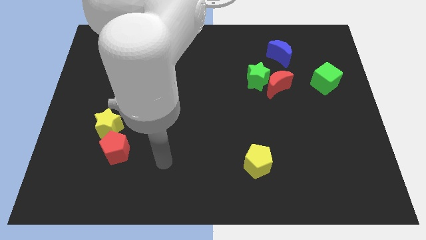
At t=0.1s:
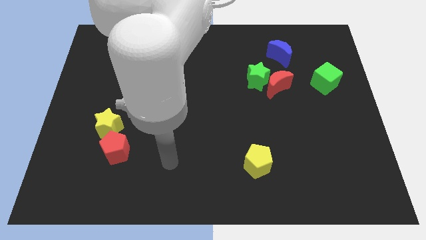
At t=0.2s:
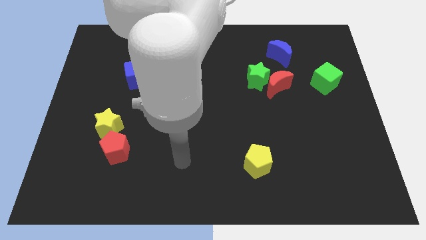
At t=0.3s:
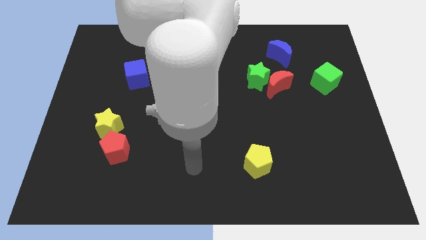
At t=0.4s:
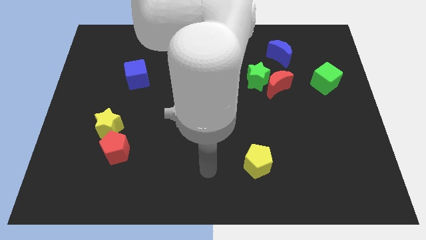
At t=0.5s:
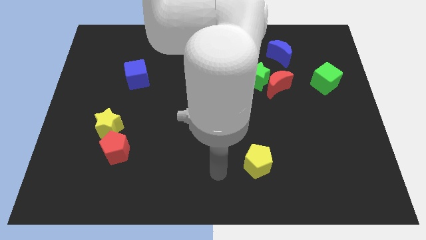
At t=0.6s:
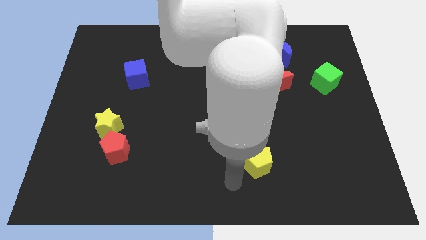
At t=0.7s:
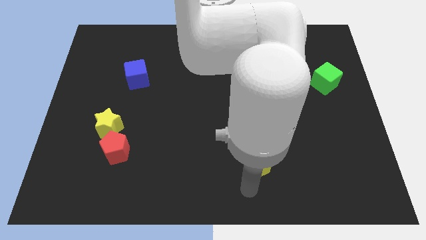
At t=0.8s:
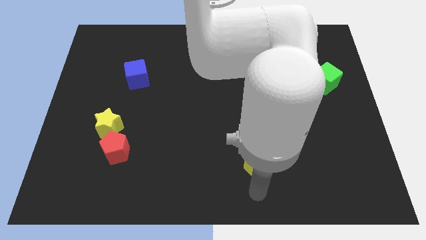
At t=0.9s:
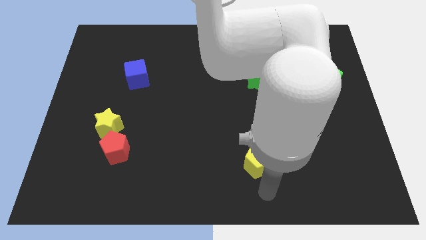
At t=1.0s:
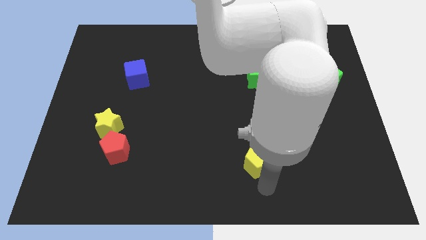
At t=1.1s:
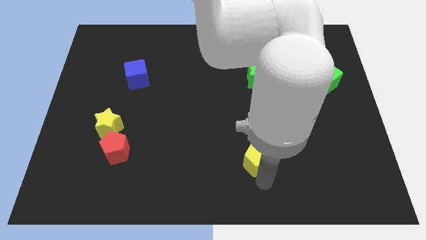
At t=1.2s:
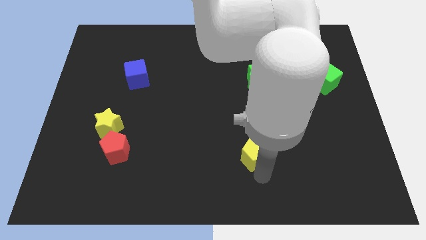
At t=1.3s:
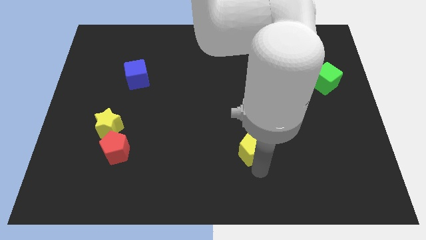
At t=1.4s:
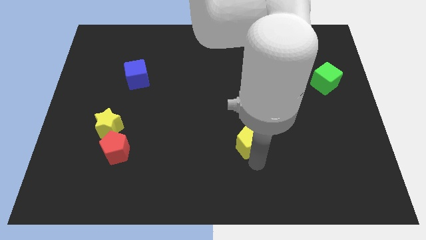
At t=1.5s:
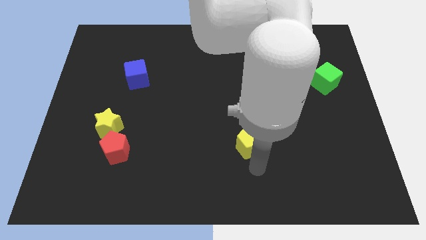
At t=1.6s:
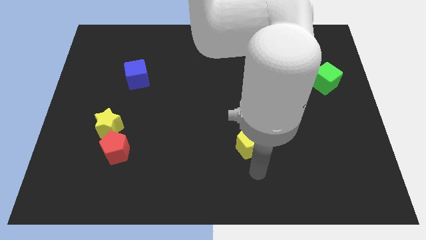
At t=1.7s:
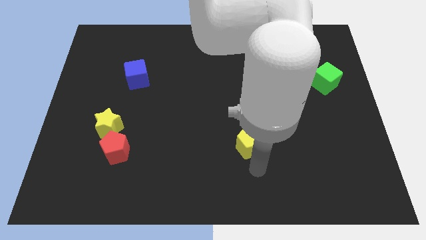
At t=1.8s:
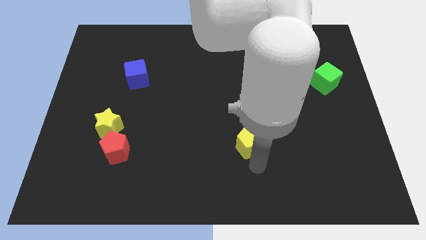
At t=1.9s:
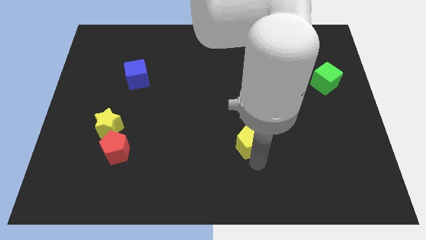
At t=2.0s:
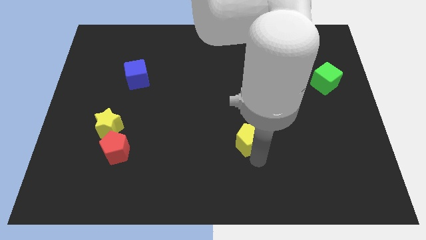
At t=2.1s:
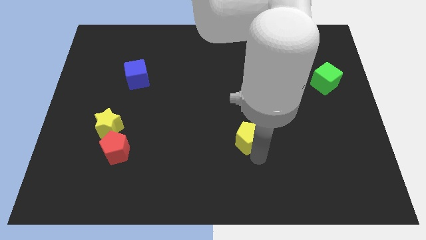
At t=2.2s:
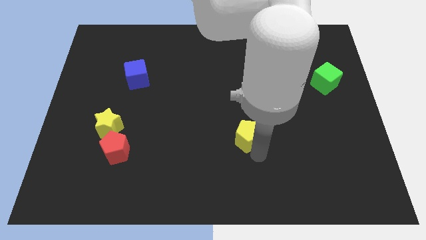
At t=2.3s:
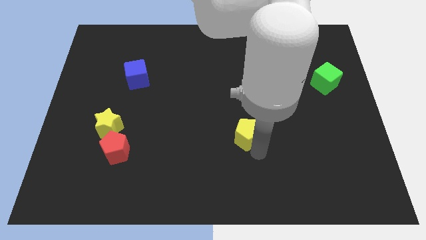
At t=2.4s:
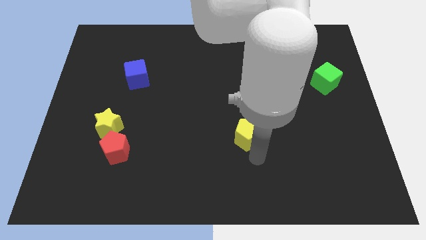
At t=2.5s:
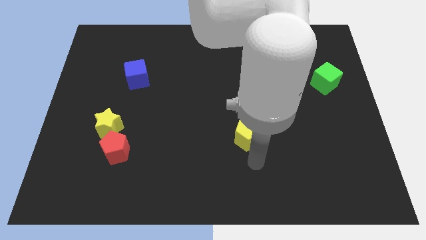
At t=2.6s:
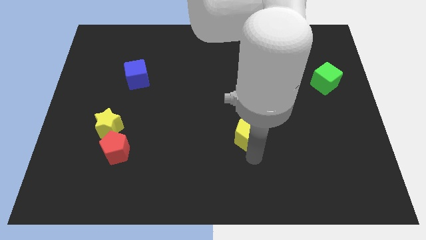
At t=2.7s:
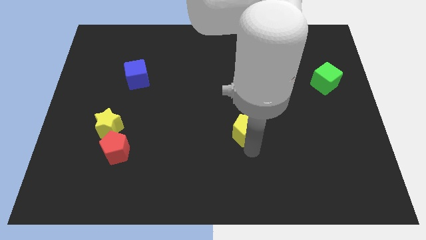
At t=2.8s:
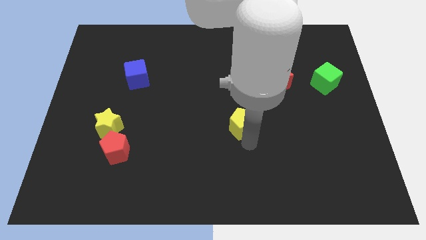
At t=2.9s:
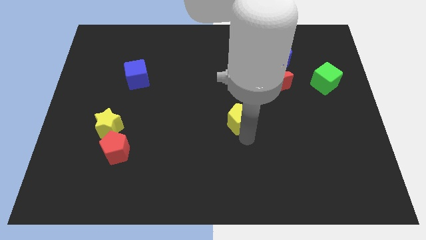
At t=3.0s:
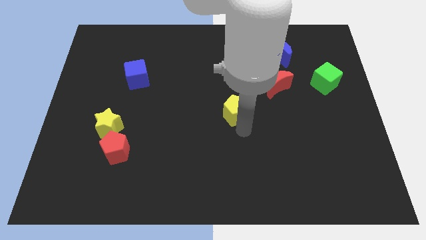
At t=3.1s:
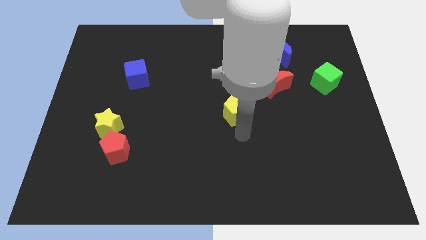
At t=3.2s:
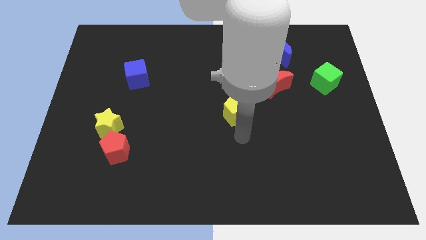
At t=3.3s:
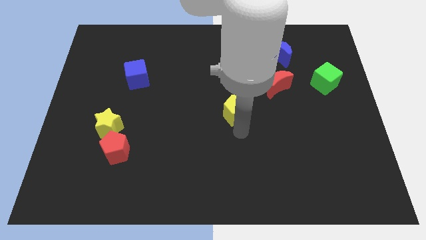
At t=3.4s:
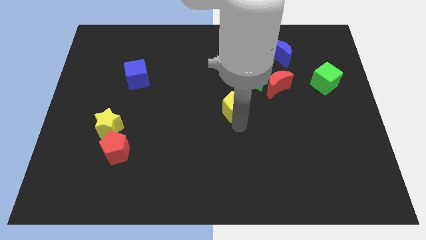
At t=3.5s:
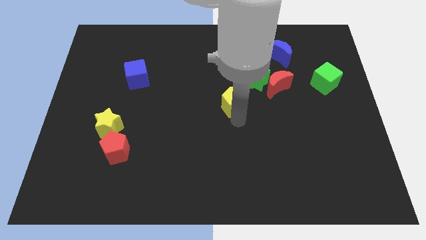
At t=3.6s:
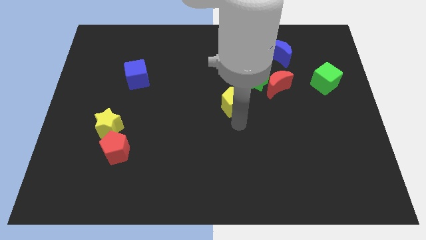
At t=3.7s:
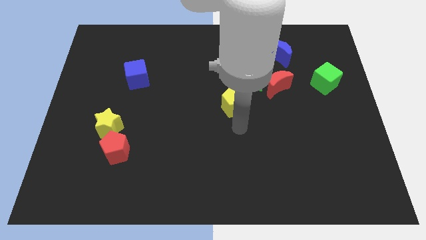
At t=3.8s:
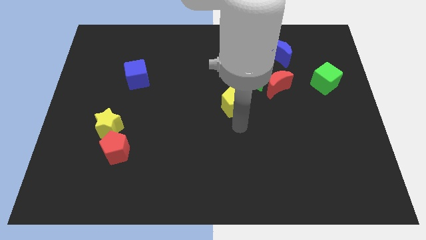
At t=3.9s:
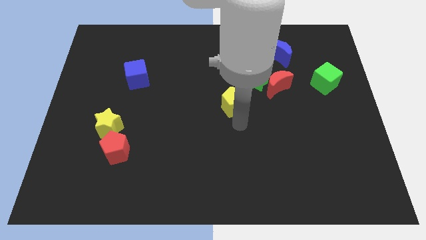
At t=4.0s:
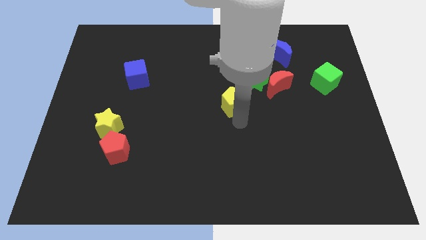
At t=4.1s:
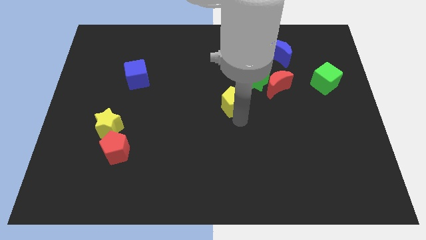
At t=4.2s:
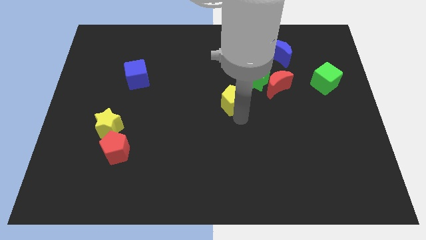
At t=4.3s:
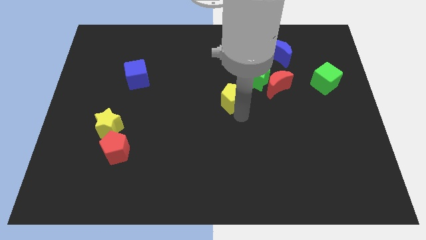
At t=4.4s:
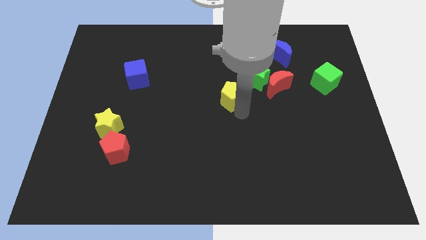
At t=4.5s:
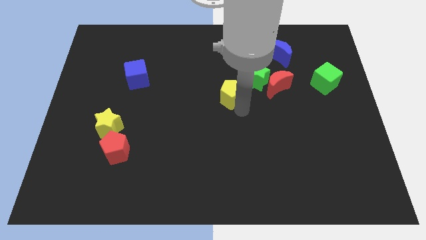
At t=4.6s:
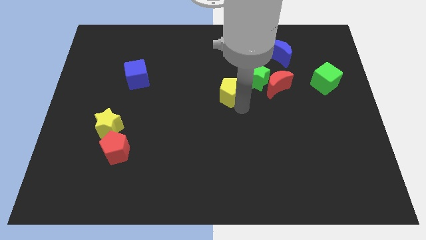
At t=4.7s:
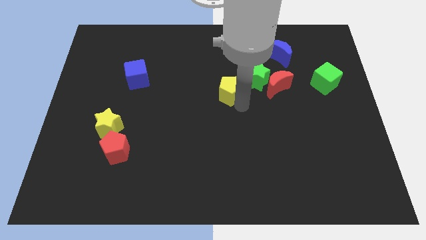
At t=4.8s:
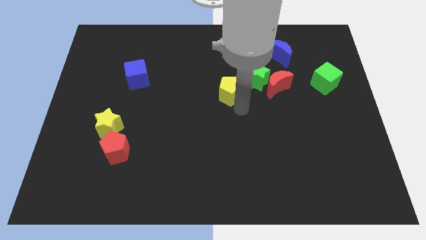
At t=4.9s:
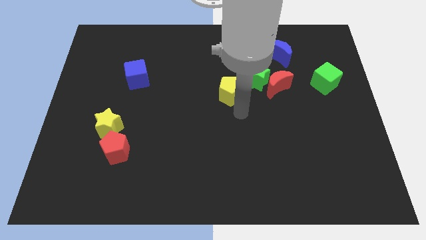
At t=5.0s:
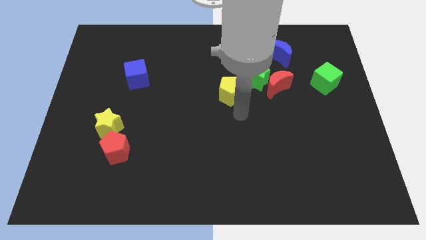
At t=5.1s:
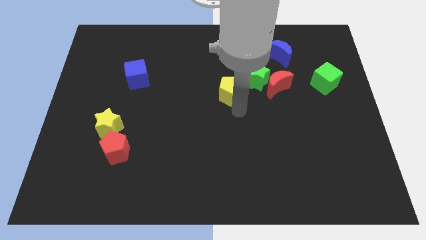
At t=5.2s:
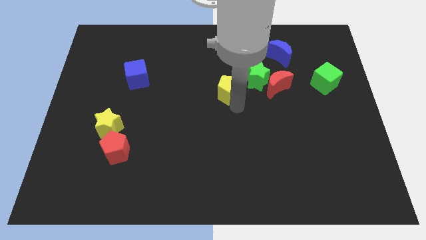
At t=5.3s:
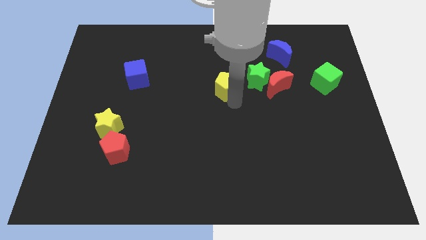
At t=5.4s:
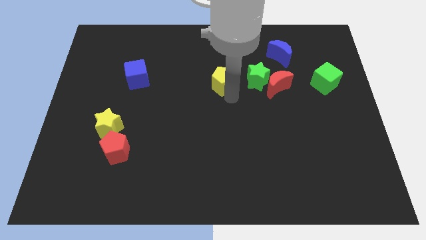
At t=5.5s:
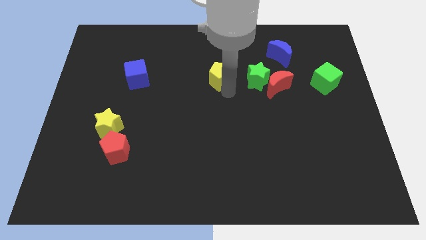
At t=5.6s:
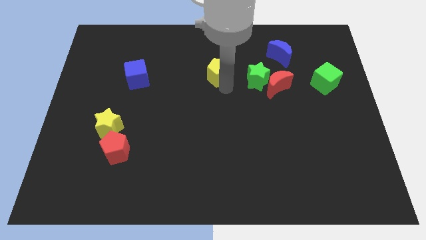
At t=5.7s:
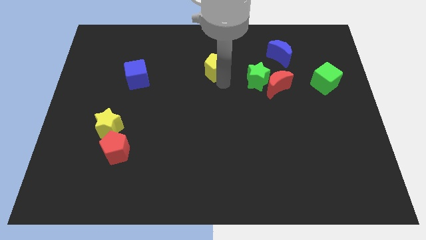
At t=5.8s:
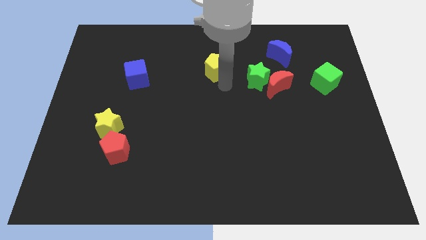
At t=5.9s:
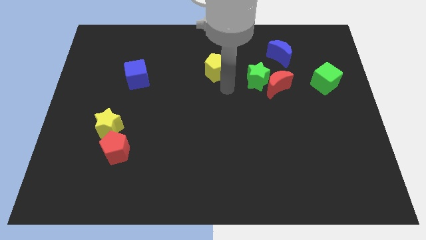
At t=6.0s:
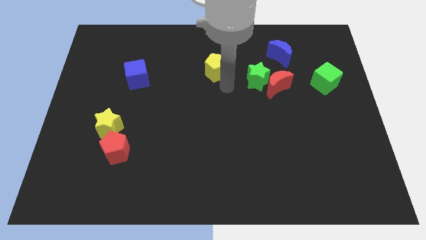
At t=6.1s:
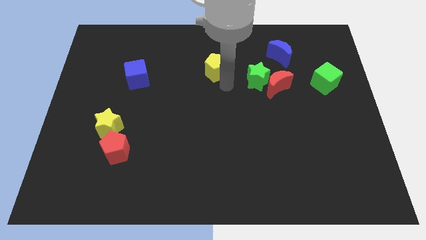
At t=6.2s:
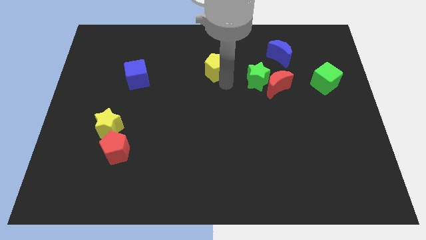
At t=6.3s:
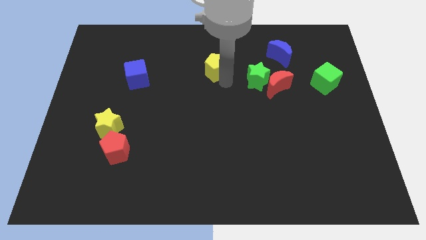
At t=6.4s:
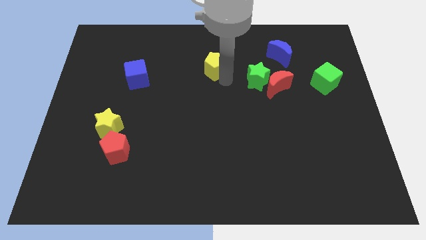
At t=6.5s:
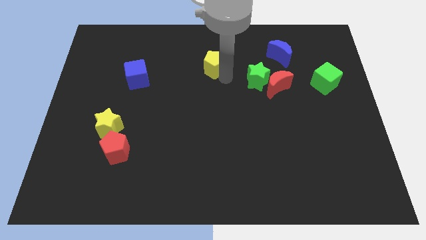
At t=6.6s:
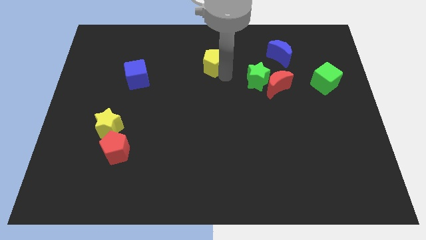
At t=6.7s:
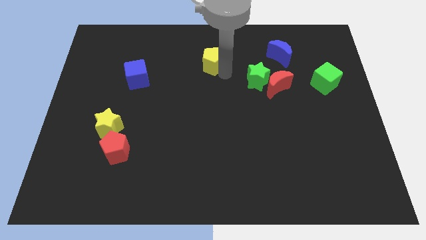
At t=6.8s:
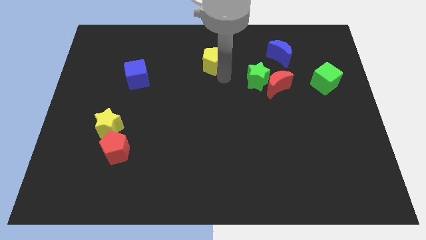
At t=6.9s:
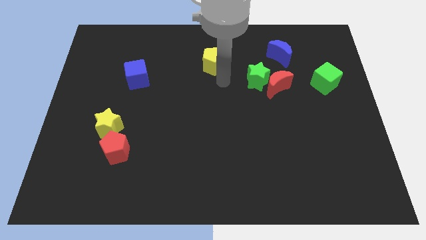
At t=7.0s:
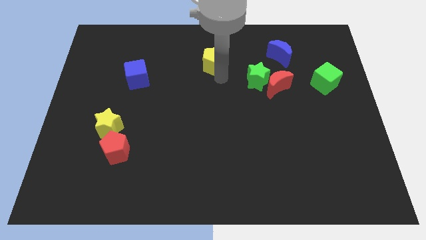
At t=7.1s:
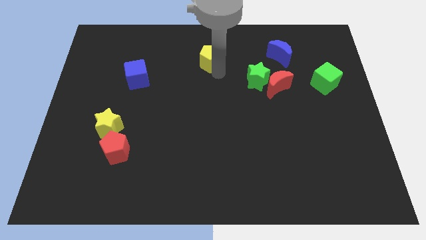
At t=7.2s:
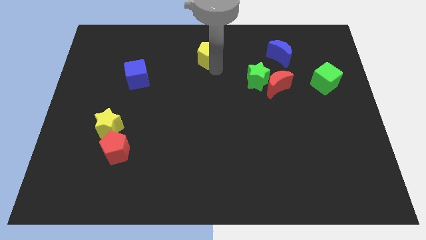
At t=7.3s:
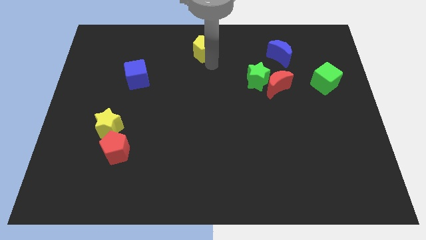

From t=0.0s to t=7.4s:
push the yellow pentagon to the top
